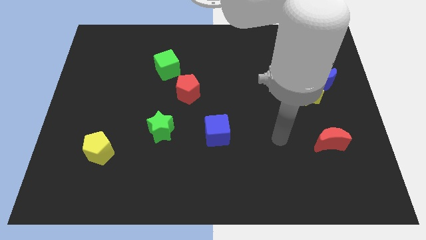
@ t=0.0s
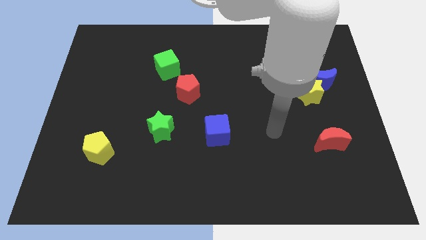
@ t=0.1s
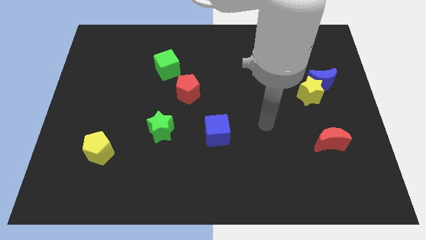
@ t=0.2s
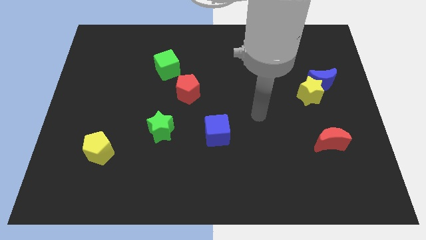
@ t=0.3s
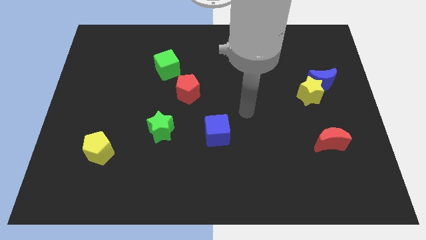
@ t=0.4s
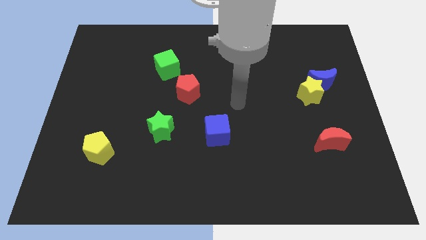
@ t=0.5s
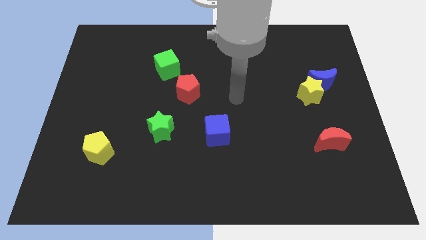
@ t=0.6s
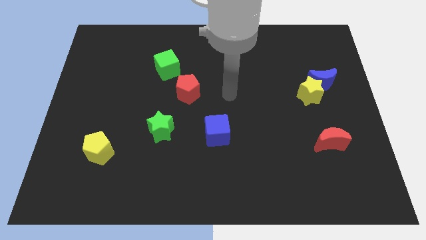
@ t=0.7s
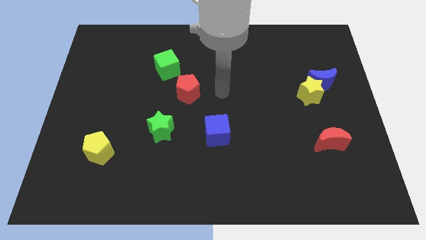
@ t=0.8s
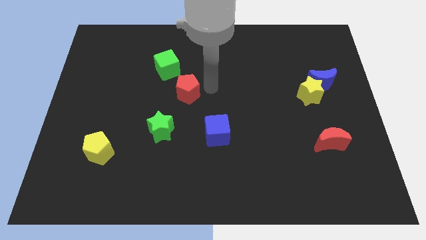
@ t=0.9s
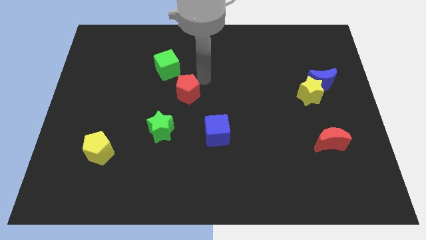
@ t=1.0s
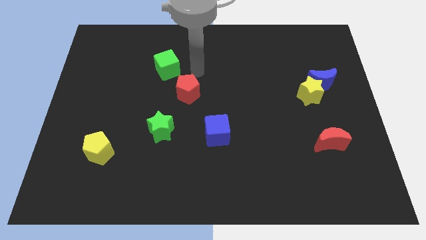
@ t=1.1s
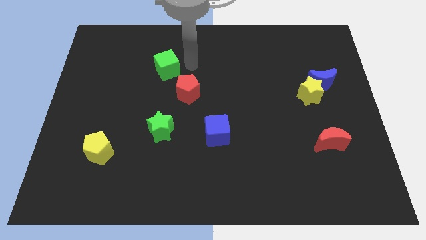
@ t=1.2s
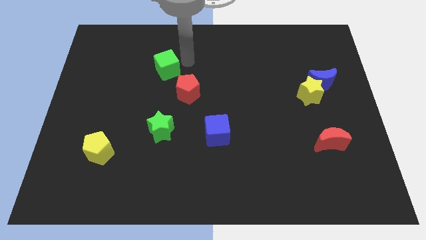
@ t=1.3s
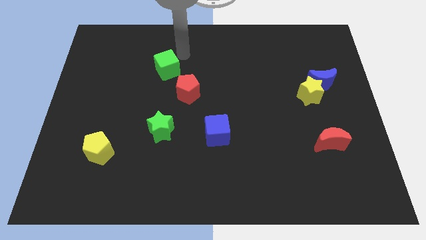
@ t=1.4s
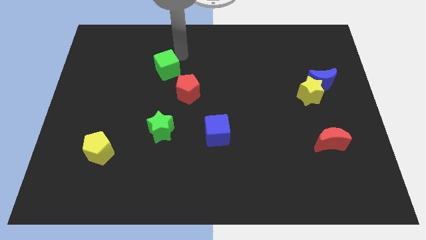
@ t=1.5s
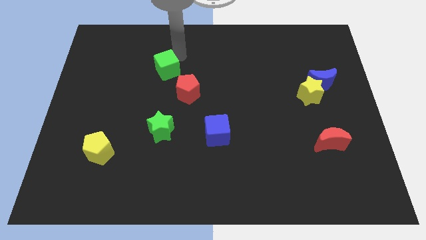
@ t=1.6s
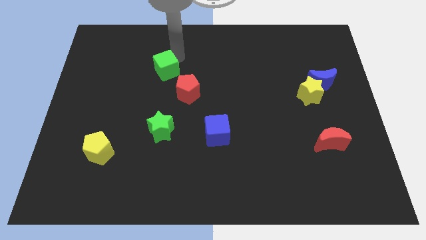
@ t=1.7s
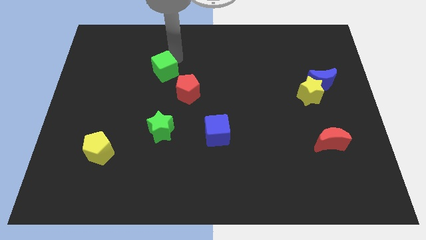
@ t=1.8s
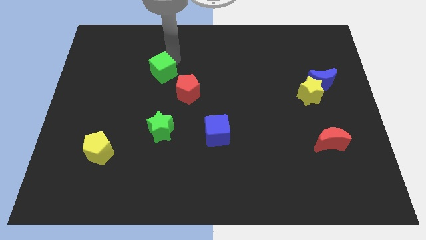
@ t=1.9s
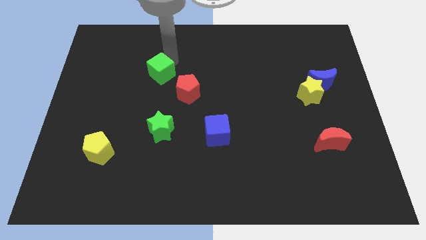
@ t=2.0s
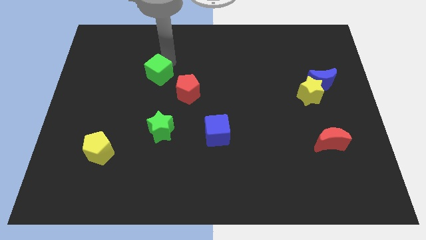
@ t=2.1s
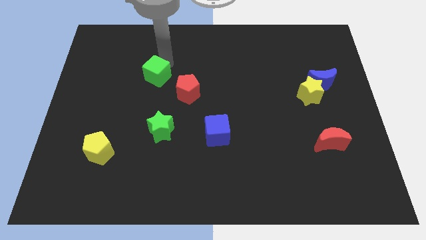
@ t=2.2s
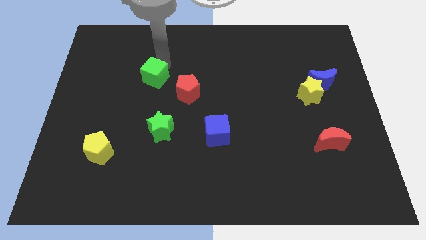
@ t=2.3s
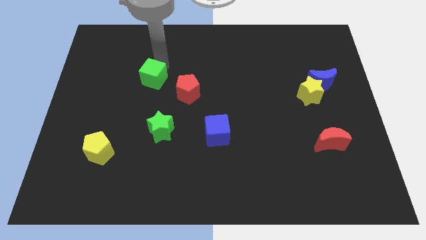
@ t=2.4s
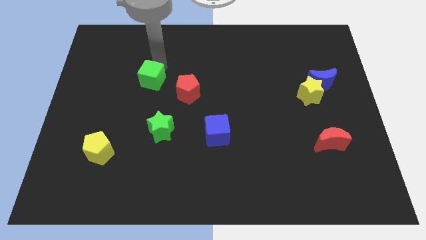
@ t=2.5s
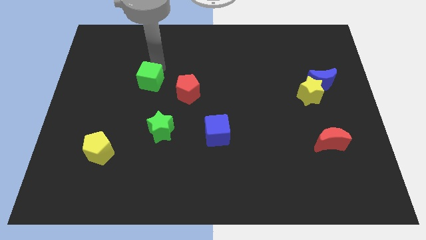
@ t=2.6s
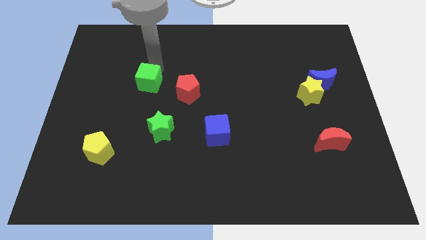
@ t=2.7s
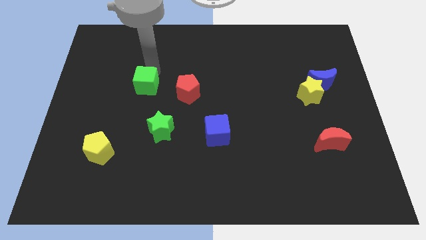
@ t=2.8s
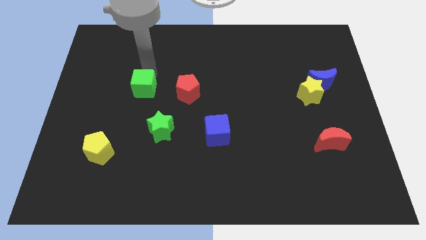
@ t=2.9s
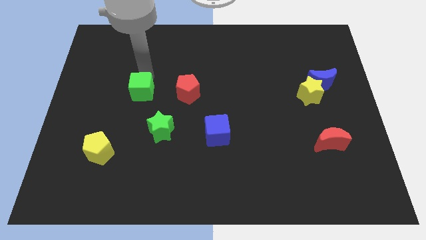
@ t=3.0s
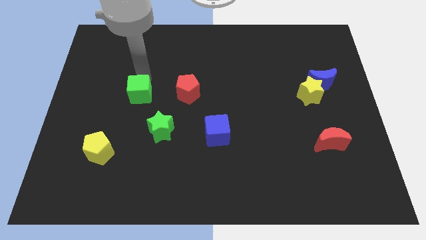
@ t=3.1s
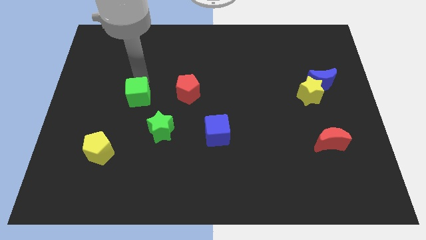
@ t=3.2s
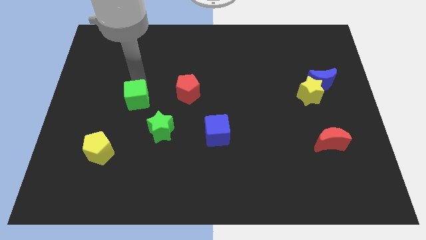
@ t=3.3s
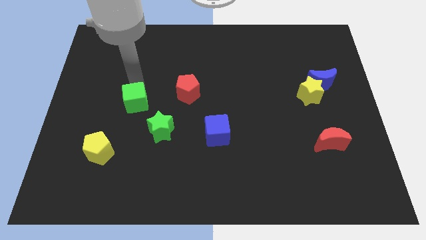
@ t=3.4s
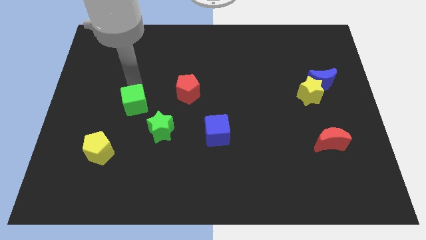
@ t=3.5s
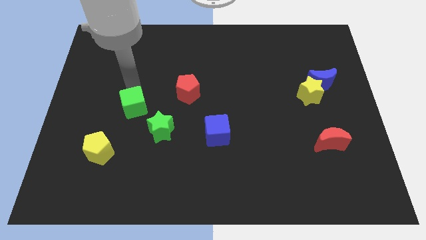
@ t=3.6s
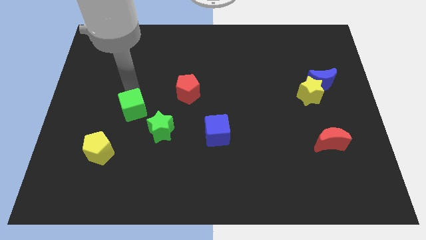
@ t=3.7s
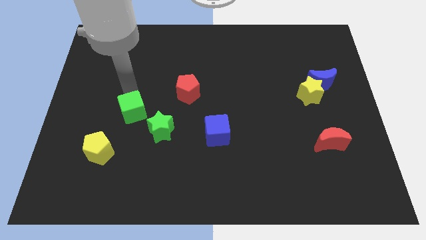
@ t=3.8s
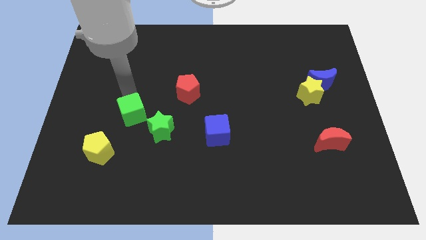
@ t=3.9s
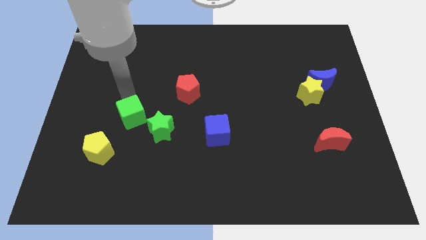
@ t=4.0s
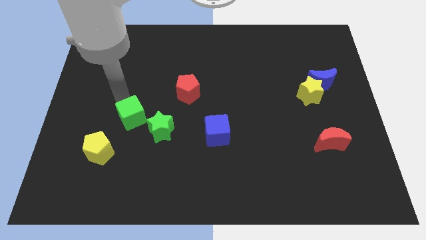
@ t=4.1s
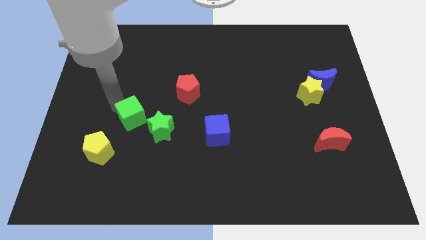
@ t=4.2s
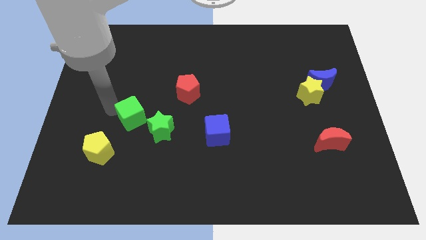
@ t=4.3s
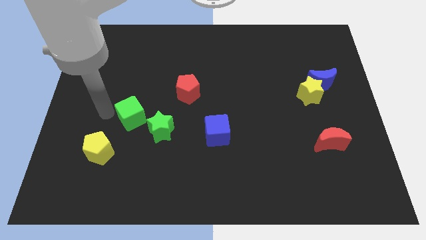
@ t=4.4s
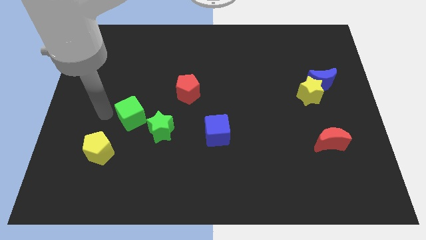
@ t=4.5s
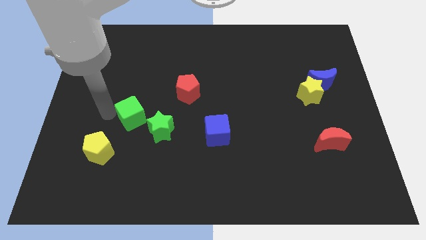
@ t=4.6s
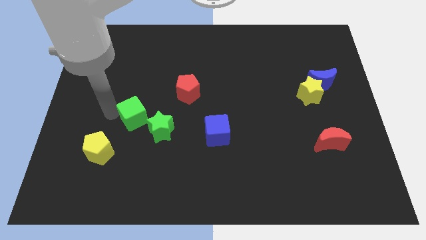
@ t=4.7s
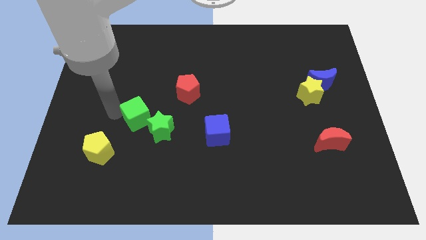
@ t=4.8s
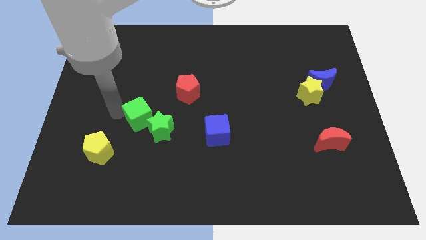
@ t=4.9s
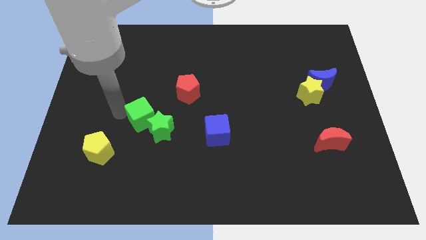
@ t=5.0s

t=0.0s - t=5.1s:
slide the green cube close to the green star

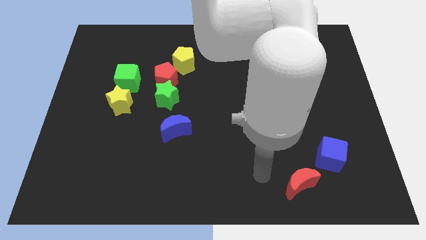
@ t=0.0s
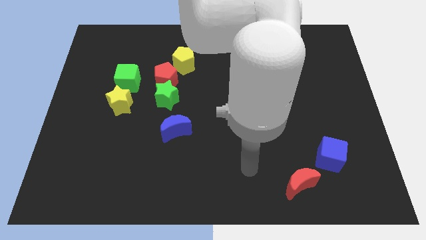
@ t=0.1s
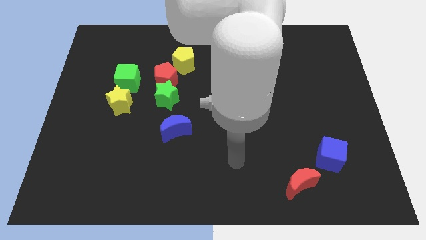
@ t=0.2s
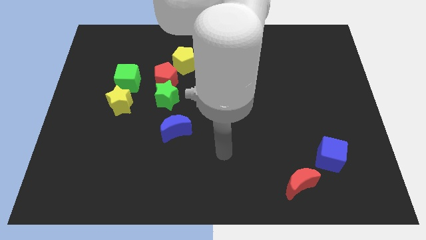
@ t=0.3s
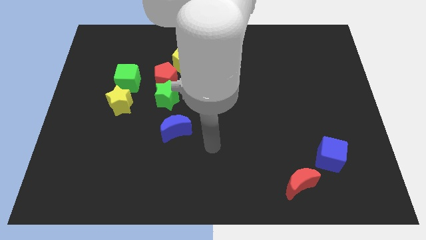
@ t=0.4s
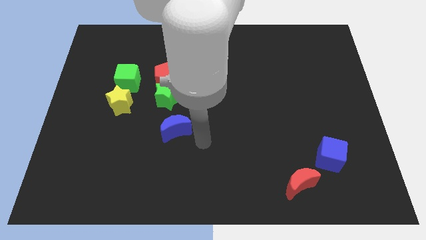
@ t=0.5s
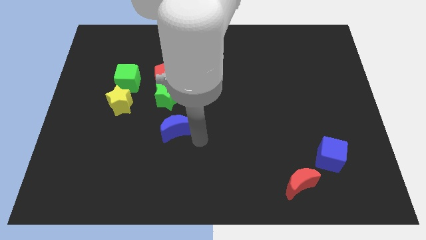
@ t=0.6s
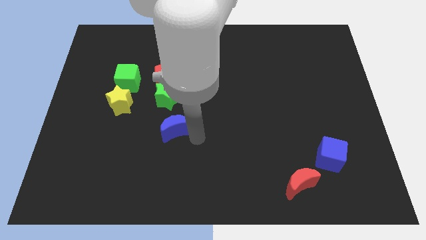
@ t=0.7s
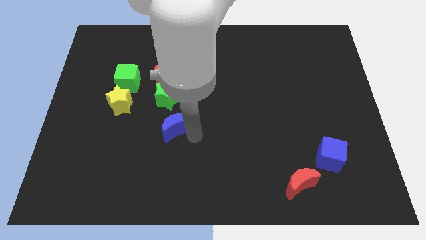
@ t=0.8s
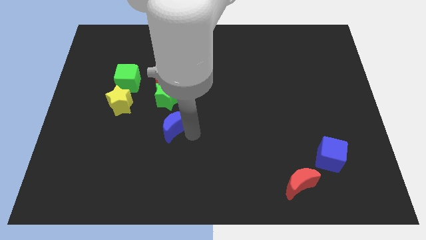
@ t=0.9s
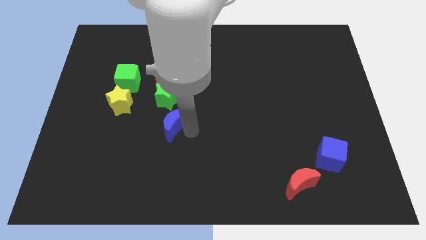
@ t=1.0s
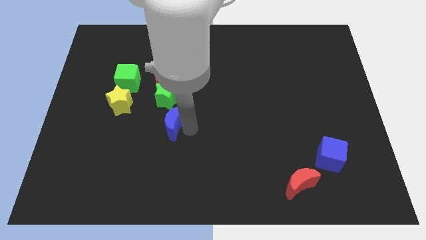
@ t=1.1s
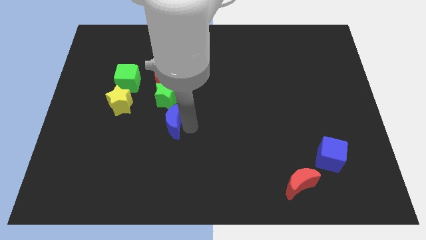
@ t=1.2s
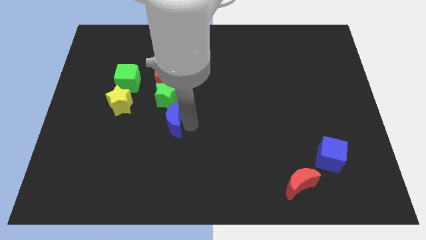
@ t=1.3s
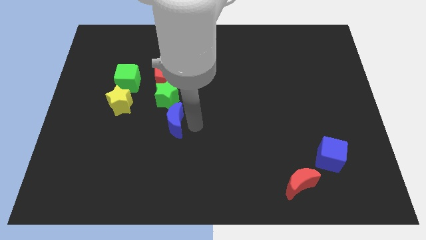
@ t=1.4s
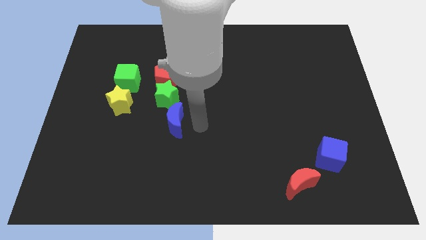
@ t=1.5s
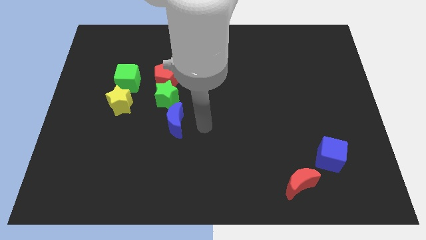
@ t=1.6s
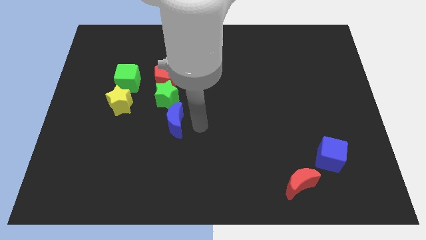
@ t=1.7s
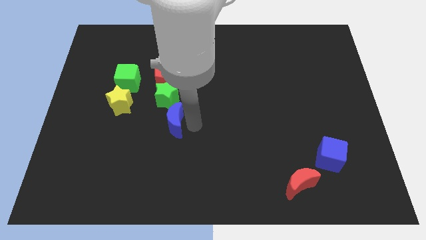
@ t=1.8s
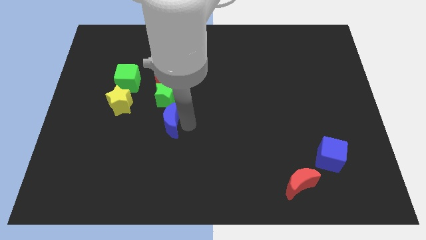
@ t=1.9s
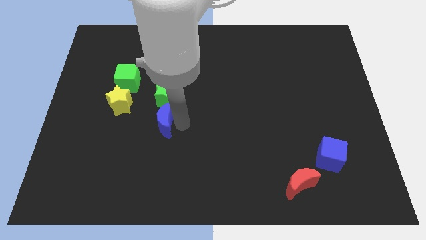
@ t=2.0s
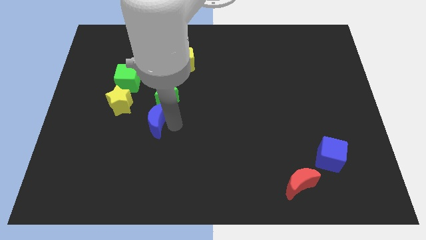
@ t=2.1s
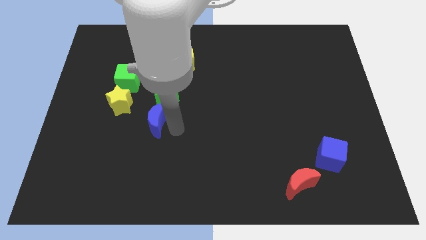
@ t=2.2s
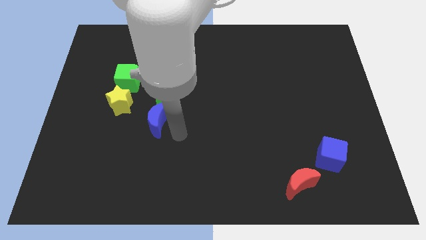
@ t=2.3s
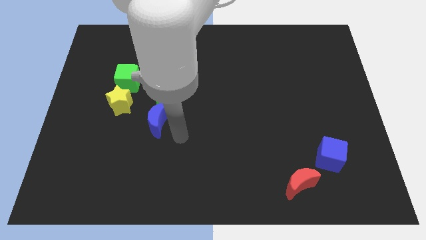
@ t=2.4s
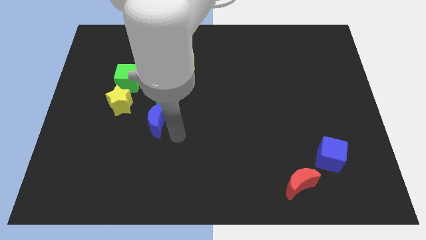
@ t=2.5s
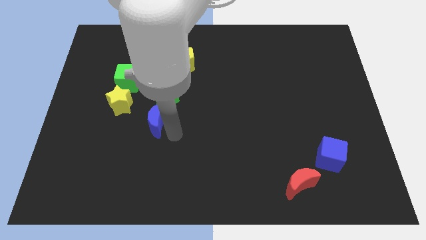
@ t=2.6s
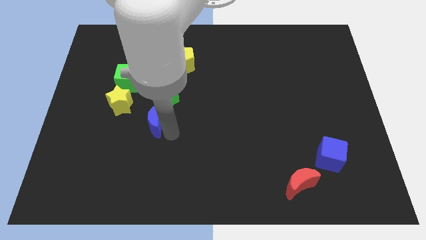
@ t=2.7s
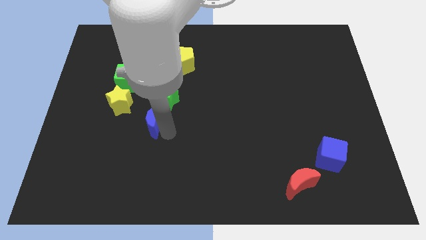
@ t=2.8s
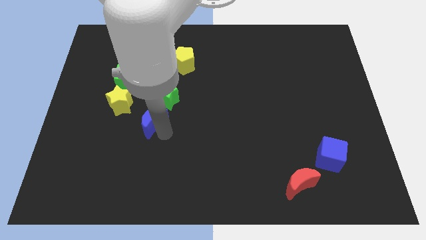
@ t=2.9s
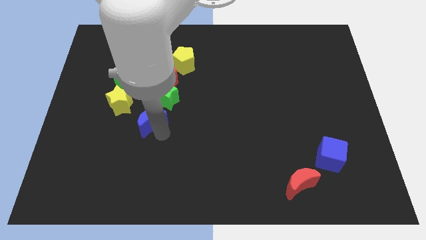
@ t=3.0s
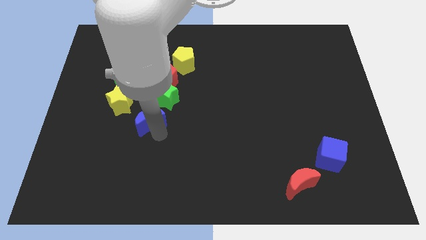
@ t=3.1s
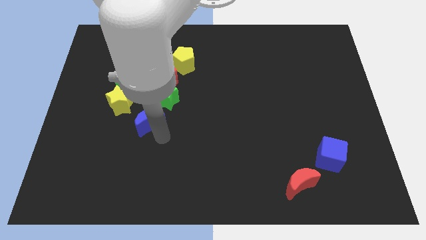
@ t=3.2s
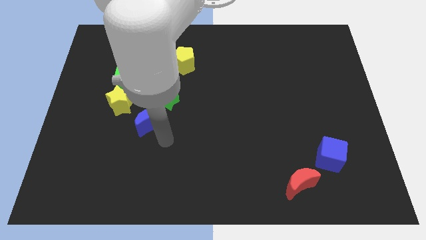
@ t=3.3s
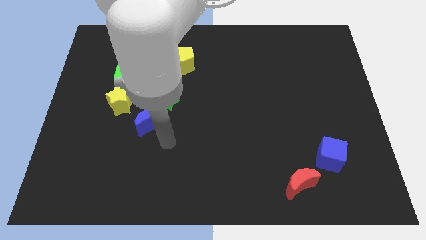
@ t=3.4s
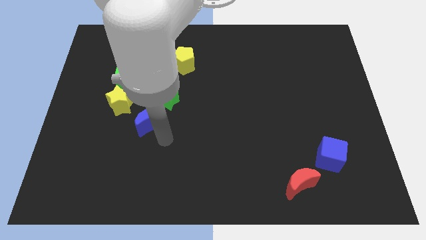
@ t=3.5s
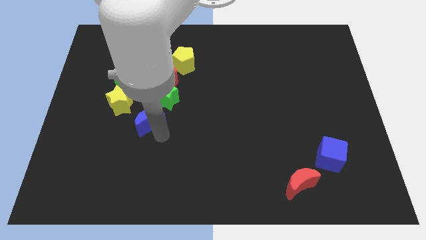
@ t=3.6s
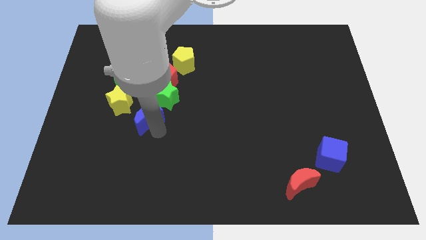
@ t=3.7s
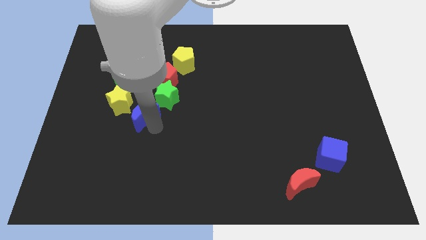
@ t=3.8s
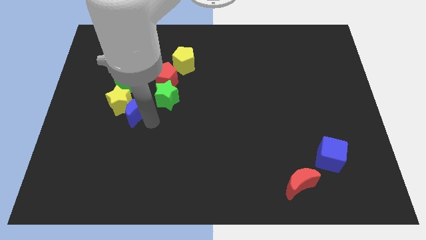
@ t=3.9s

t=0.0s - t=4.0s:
push the blue moon close to the yellow star
